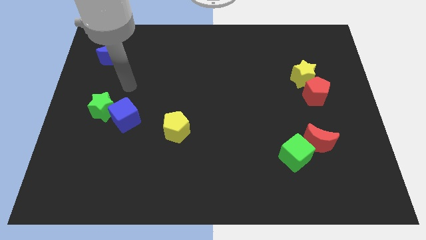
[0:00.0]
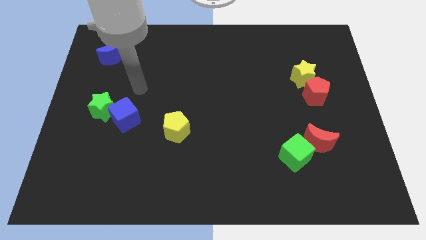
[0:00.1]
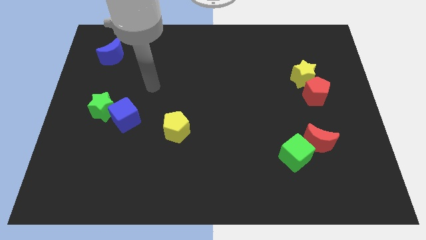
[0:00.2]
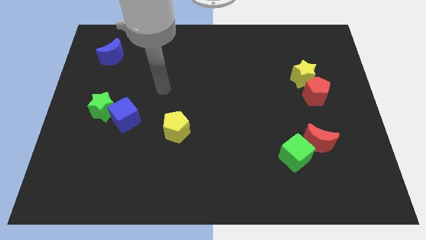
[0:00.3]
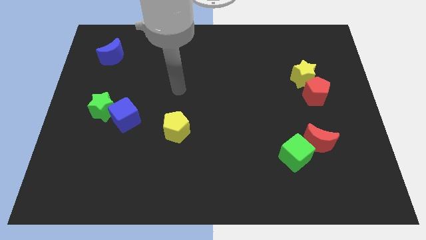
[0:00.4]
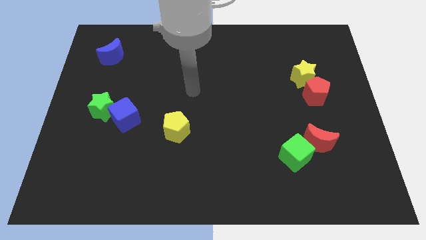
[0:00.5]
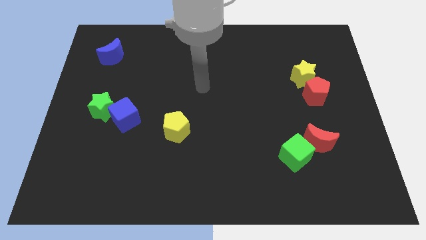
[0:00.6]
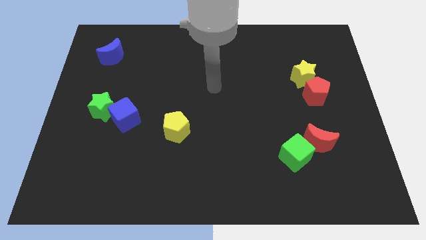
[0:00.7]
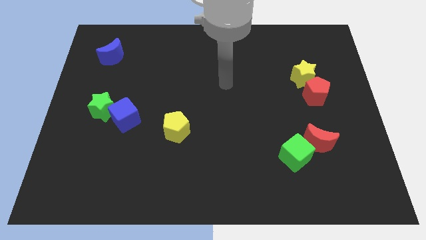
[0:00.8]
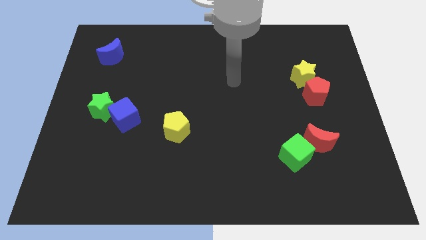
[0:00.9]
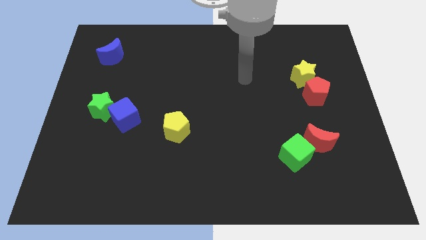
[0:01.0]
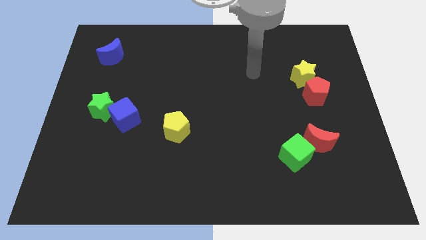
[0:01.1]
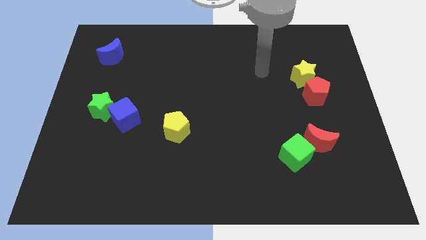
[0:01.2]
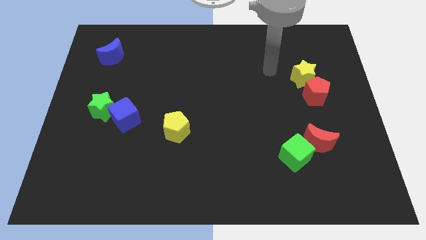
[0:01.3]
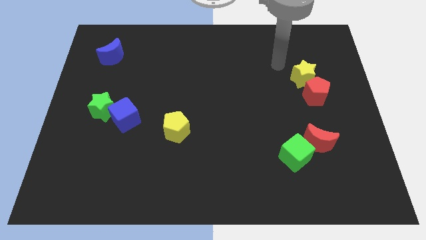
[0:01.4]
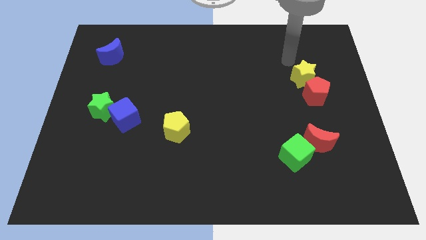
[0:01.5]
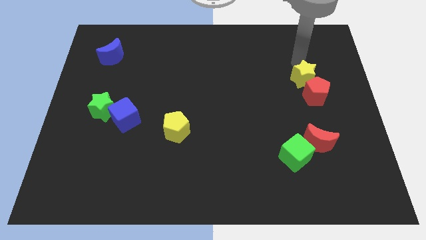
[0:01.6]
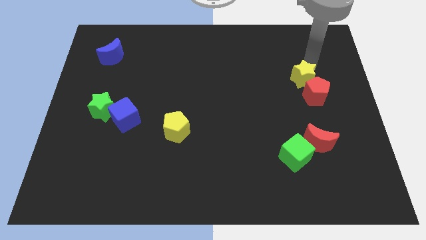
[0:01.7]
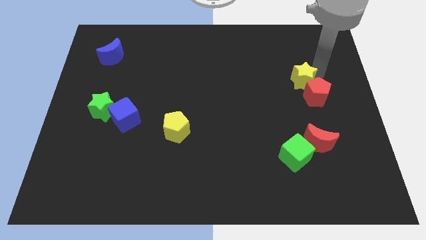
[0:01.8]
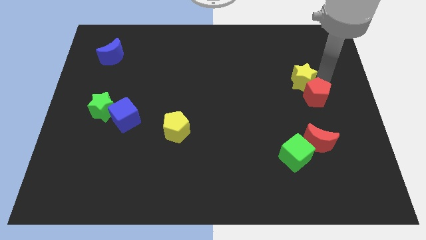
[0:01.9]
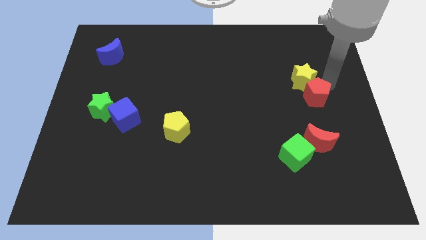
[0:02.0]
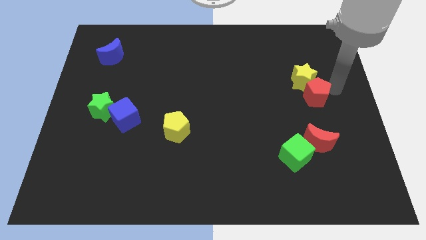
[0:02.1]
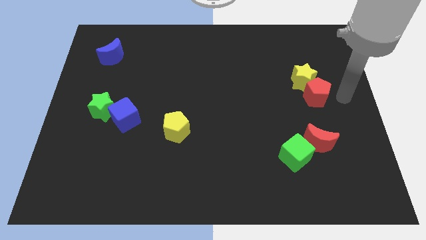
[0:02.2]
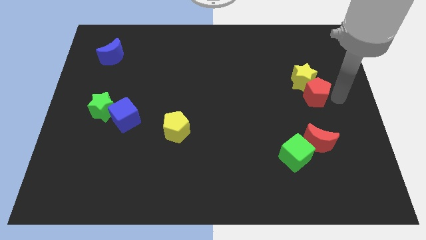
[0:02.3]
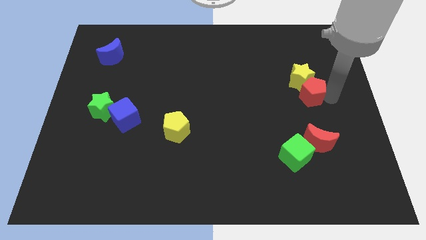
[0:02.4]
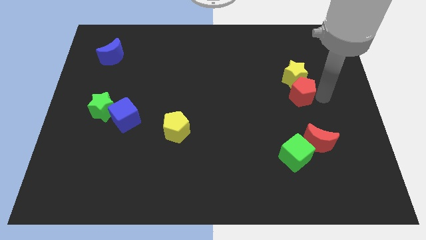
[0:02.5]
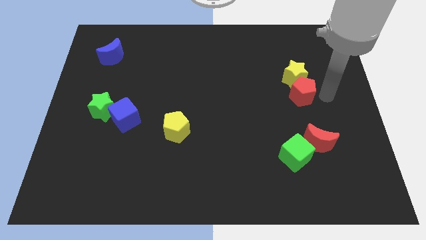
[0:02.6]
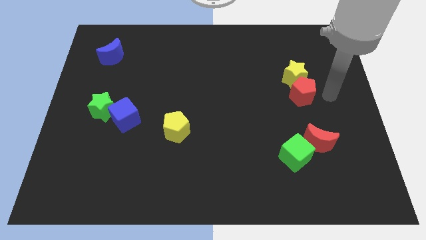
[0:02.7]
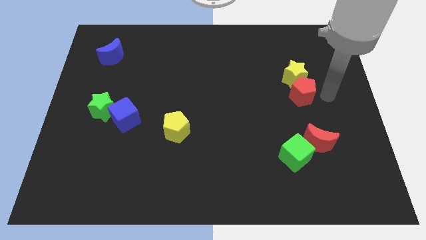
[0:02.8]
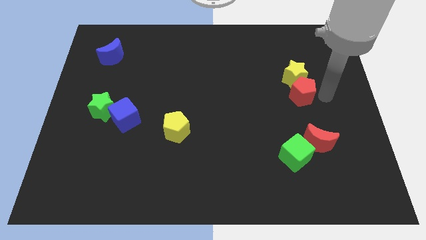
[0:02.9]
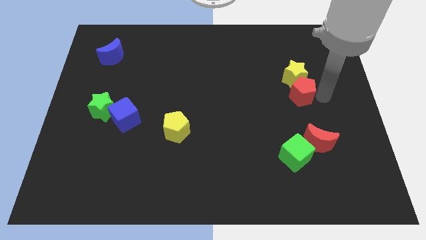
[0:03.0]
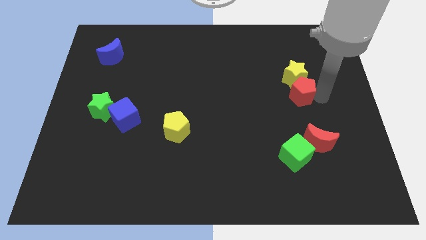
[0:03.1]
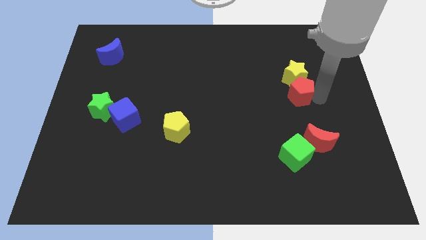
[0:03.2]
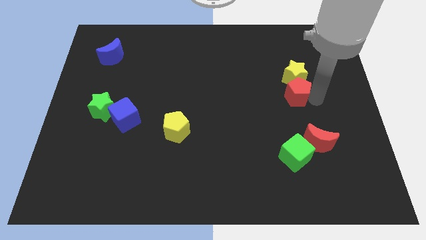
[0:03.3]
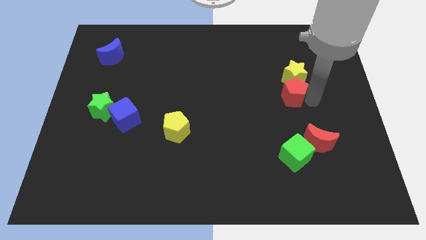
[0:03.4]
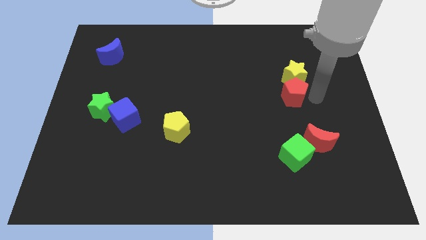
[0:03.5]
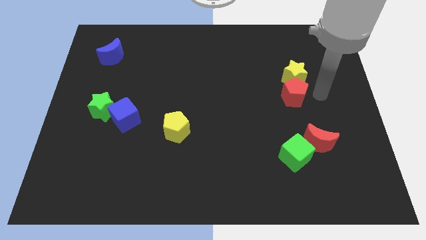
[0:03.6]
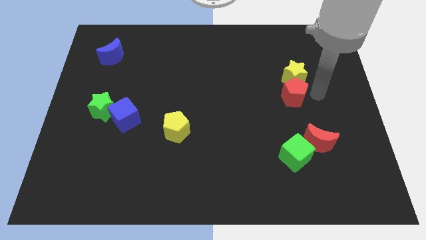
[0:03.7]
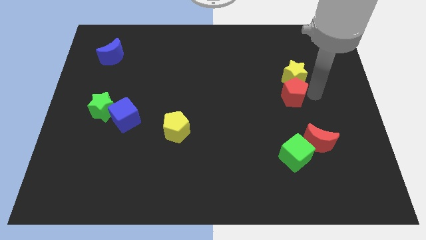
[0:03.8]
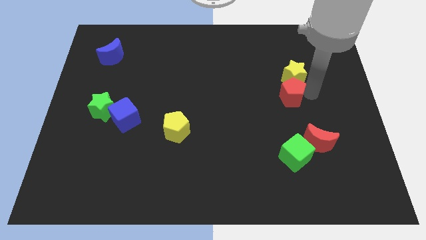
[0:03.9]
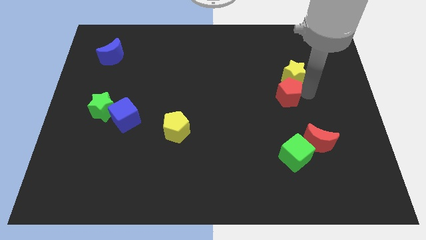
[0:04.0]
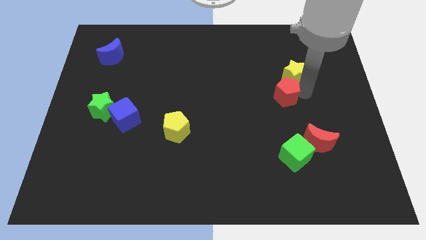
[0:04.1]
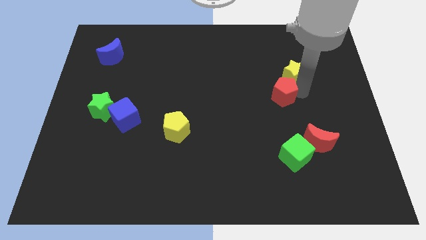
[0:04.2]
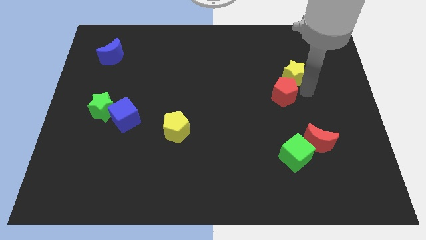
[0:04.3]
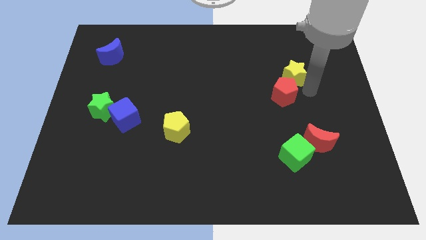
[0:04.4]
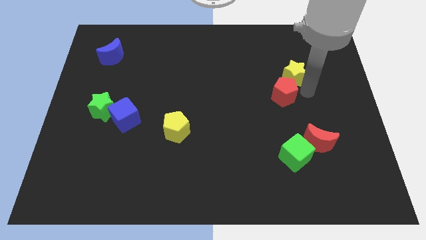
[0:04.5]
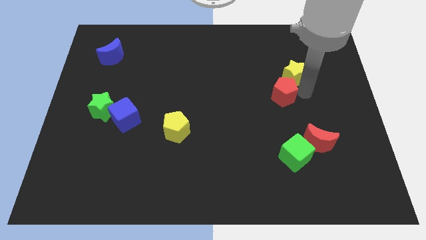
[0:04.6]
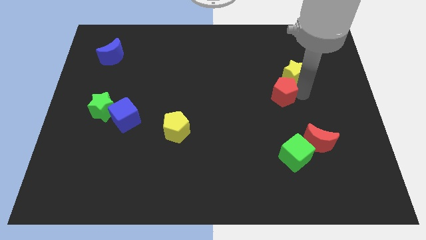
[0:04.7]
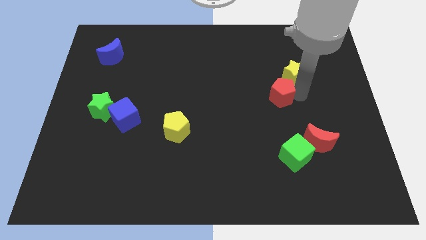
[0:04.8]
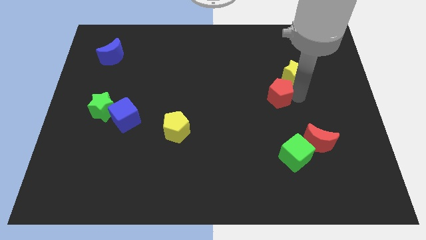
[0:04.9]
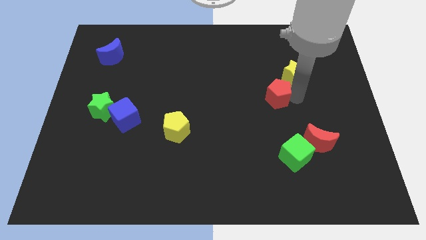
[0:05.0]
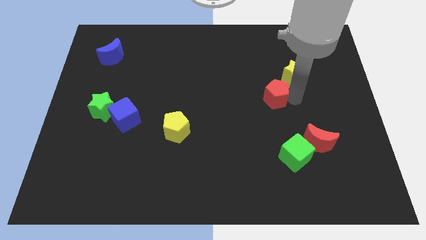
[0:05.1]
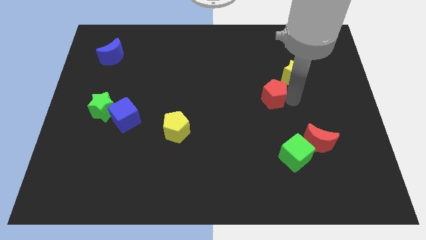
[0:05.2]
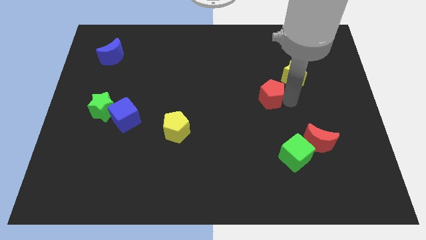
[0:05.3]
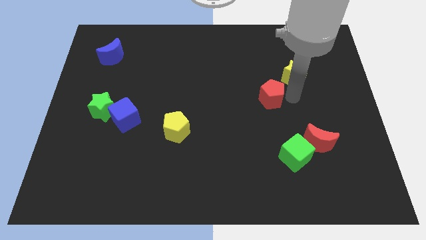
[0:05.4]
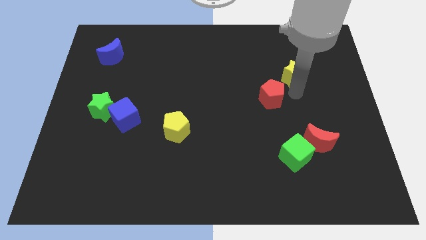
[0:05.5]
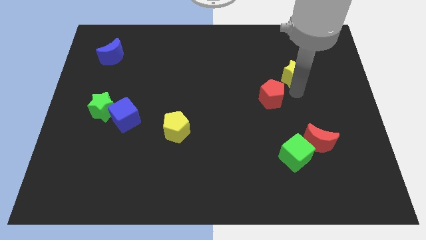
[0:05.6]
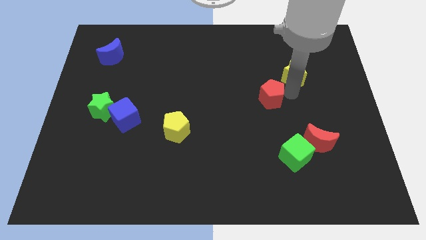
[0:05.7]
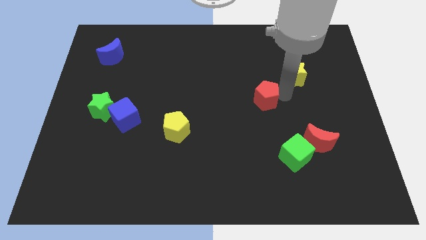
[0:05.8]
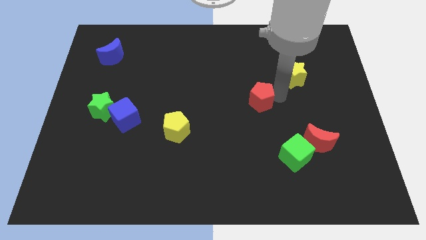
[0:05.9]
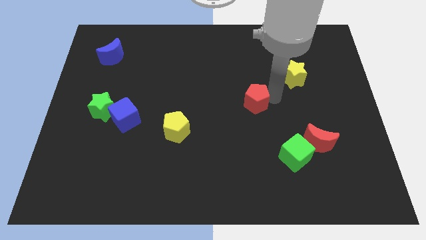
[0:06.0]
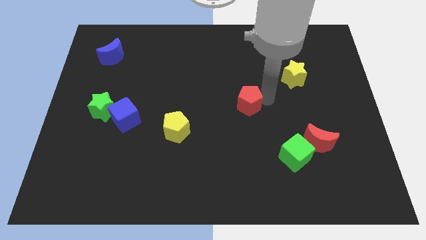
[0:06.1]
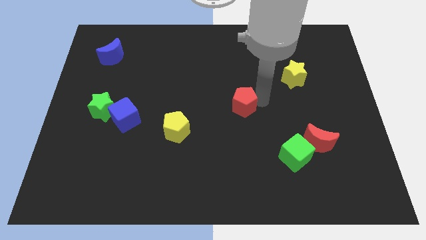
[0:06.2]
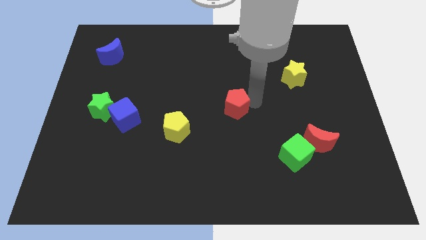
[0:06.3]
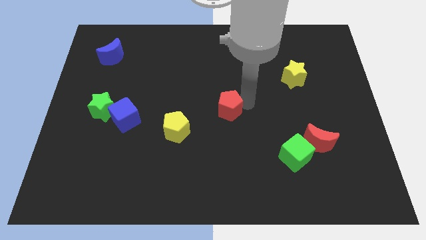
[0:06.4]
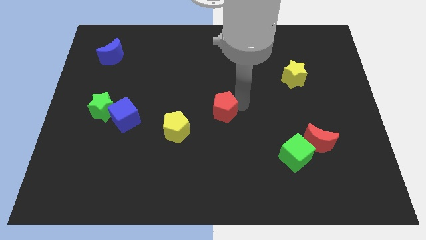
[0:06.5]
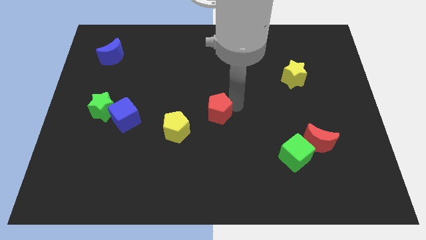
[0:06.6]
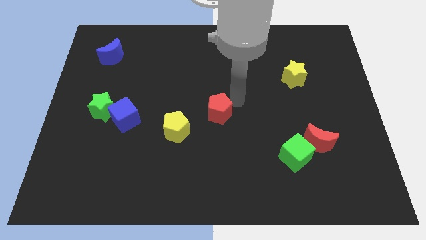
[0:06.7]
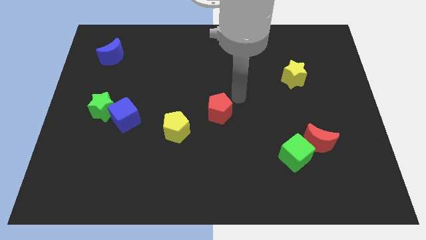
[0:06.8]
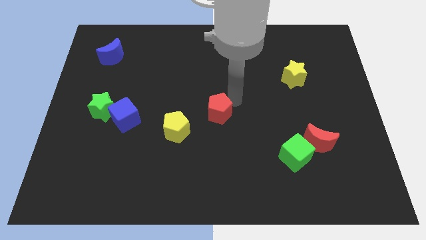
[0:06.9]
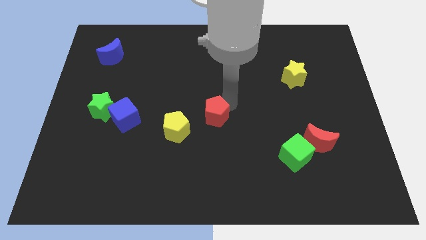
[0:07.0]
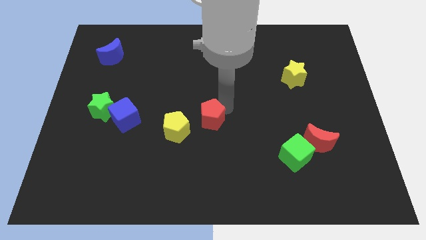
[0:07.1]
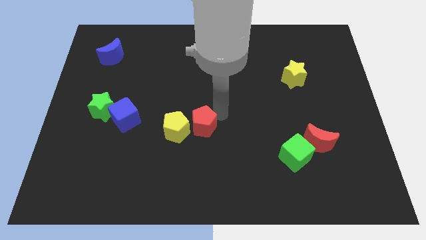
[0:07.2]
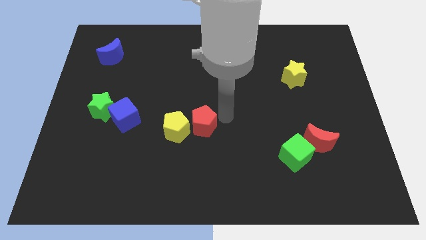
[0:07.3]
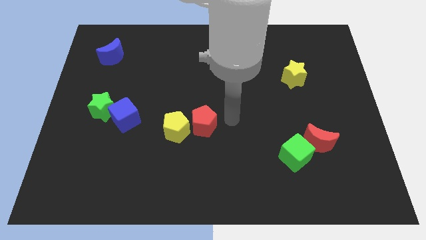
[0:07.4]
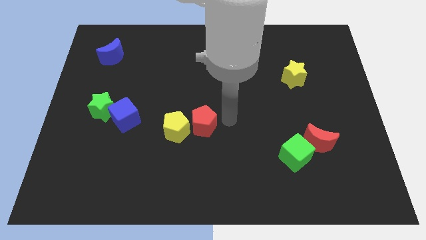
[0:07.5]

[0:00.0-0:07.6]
put the red pentagon to the yellow pentagon

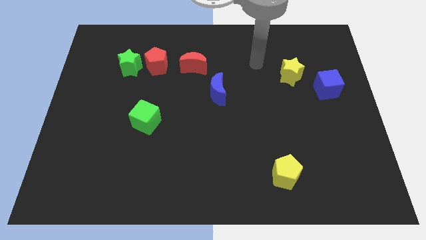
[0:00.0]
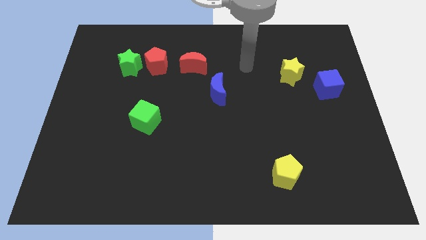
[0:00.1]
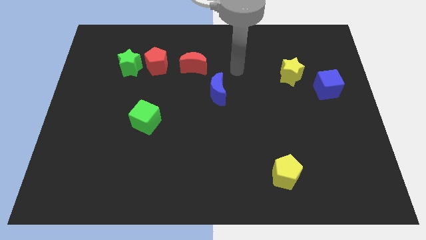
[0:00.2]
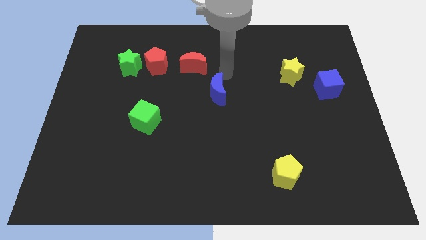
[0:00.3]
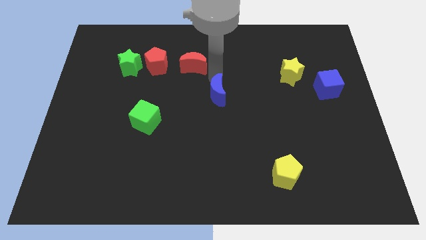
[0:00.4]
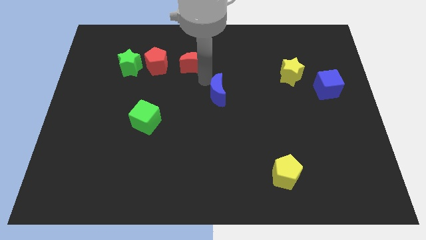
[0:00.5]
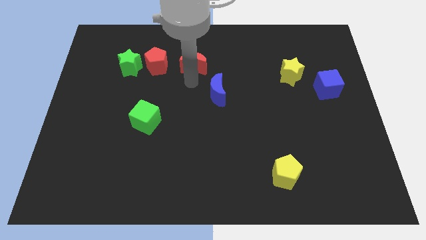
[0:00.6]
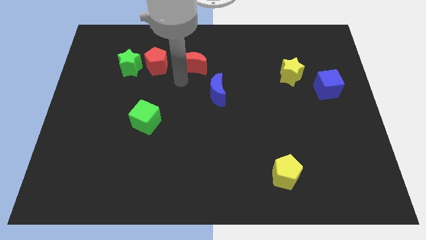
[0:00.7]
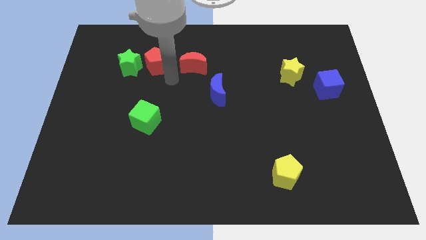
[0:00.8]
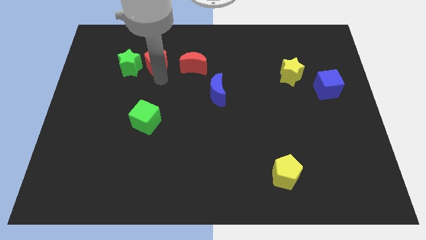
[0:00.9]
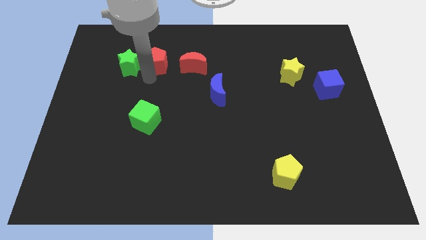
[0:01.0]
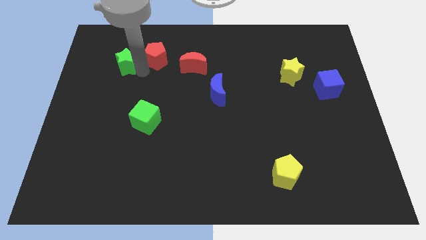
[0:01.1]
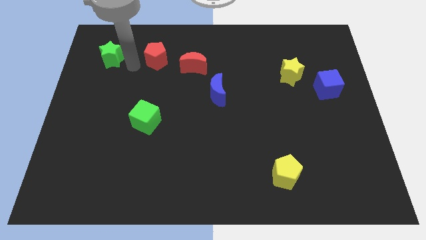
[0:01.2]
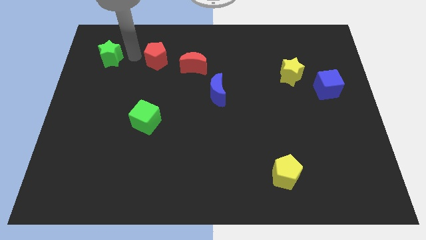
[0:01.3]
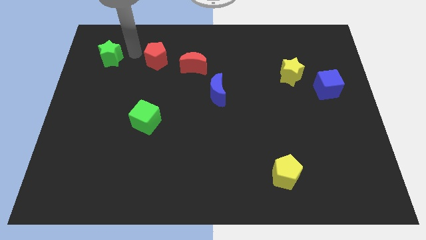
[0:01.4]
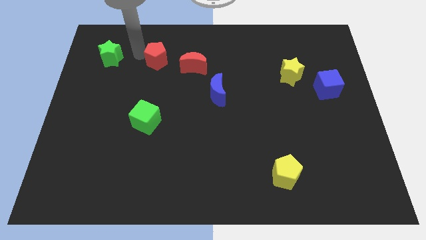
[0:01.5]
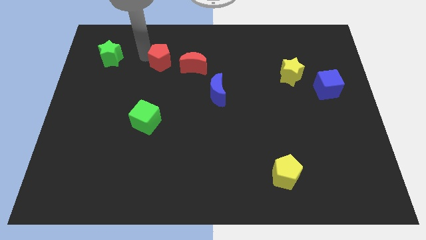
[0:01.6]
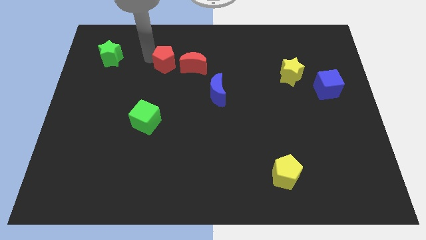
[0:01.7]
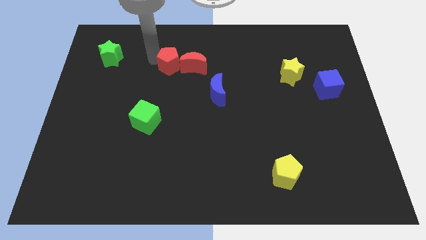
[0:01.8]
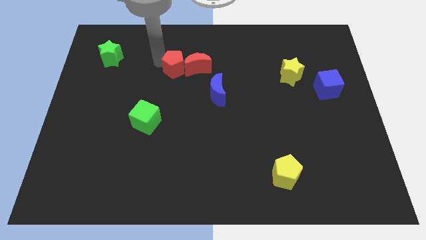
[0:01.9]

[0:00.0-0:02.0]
put the red pentagon next to the red moon
